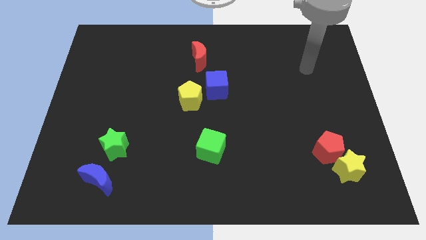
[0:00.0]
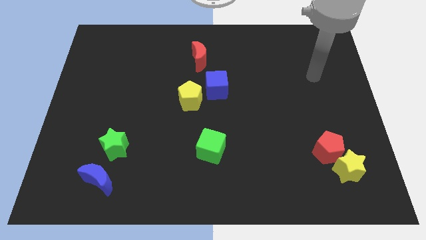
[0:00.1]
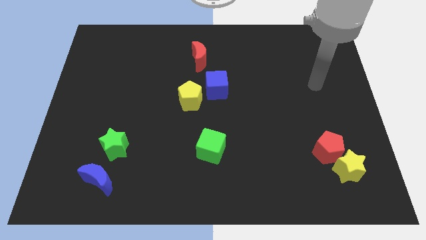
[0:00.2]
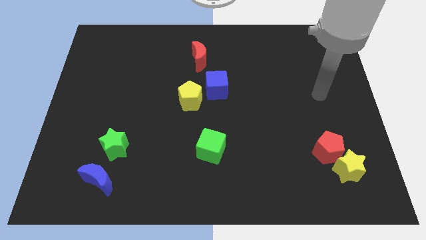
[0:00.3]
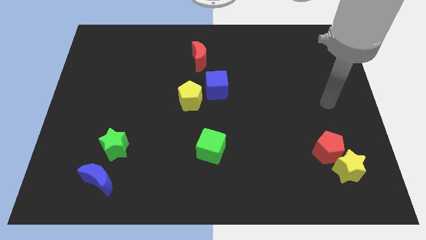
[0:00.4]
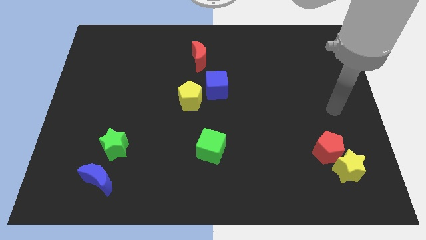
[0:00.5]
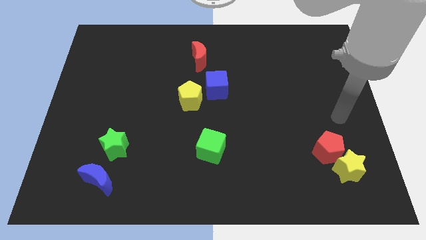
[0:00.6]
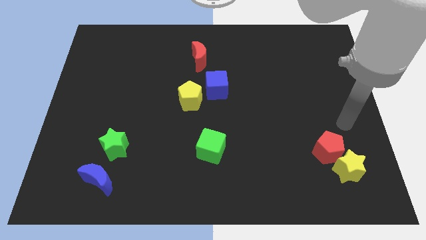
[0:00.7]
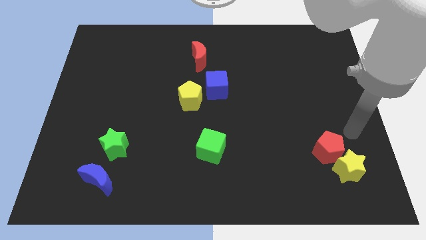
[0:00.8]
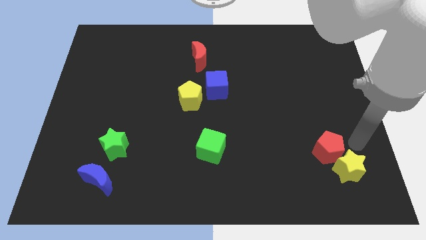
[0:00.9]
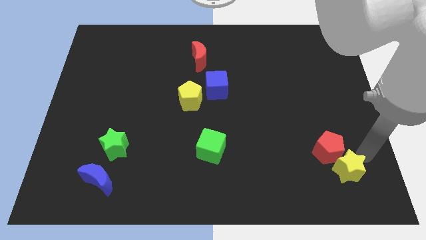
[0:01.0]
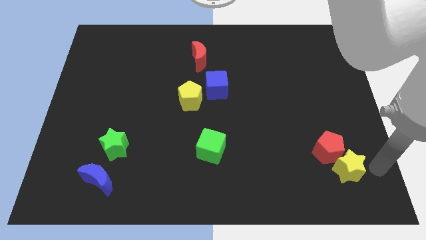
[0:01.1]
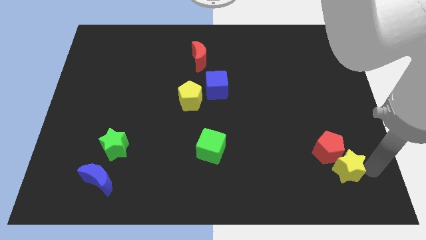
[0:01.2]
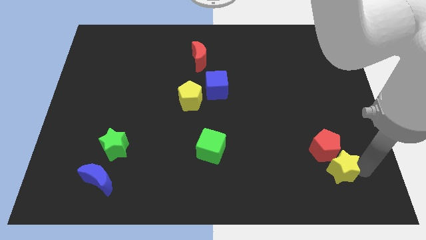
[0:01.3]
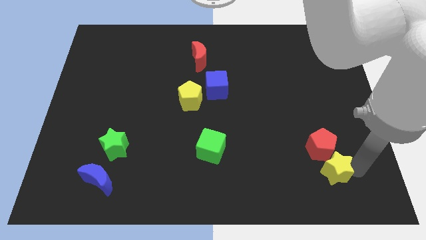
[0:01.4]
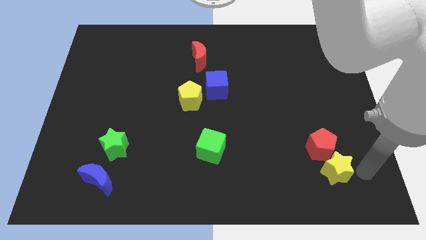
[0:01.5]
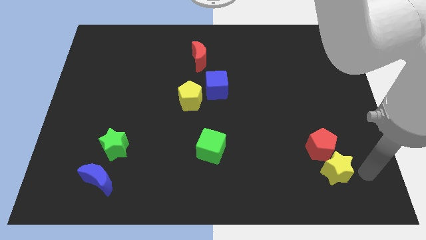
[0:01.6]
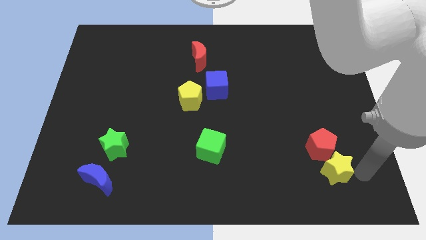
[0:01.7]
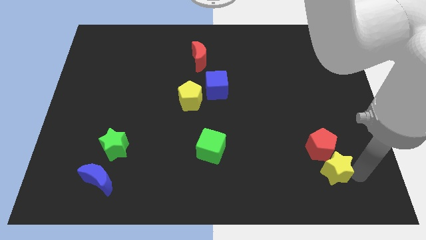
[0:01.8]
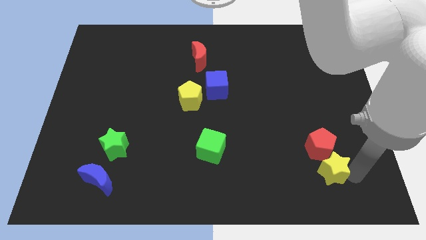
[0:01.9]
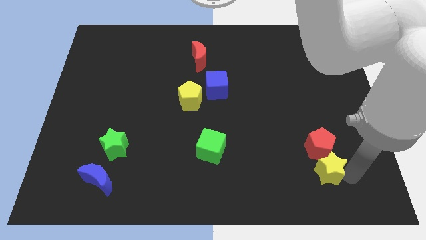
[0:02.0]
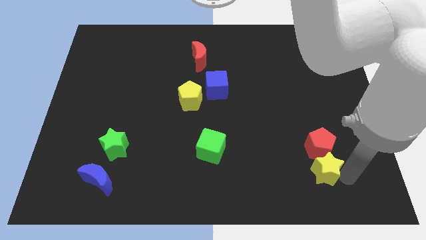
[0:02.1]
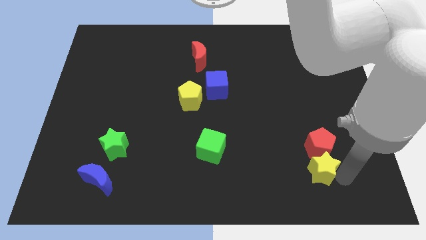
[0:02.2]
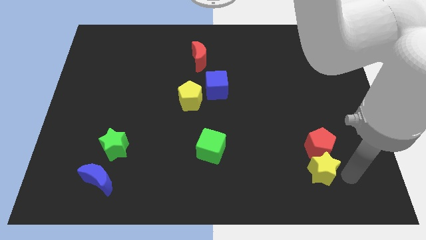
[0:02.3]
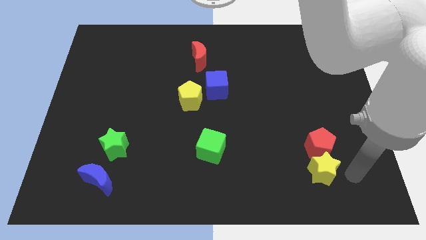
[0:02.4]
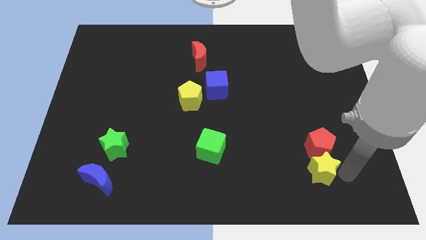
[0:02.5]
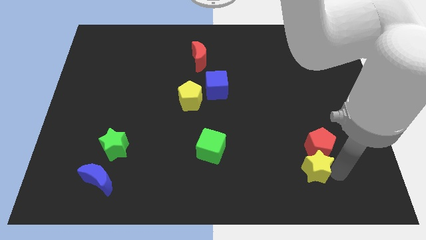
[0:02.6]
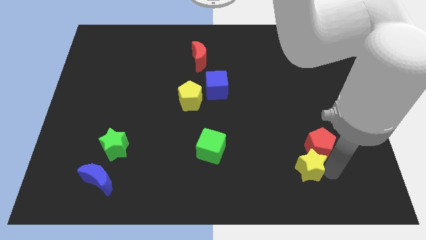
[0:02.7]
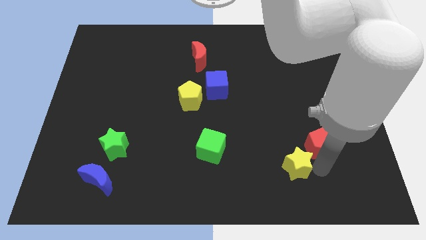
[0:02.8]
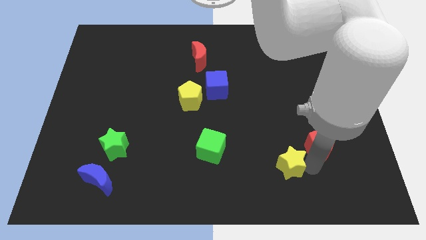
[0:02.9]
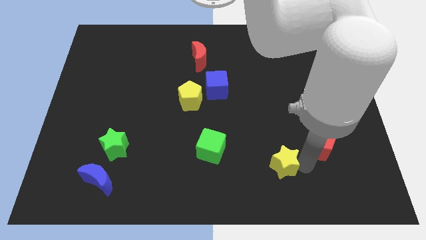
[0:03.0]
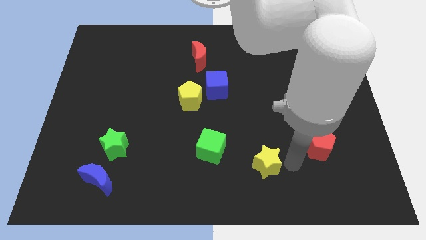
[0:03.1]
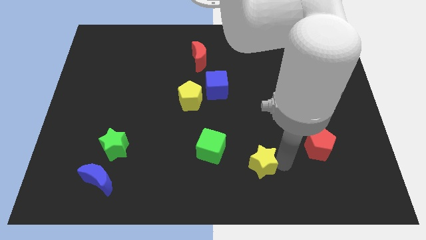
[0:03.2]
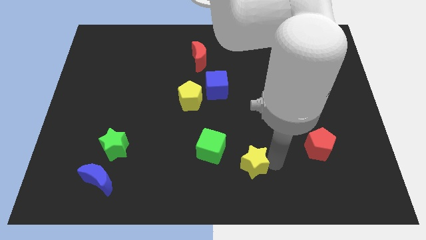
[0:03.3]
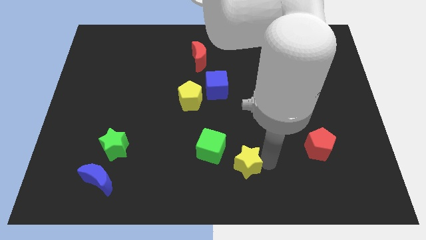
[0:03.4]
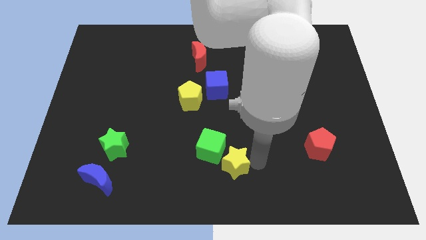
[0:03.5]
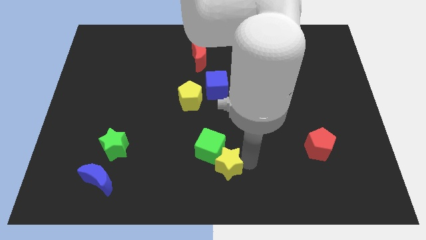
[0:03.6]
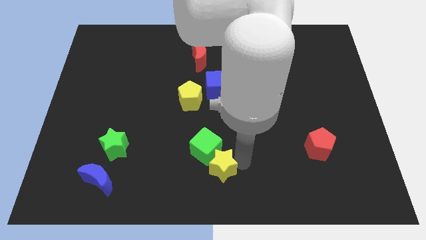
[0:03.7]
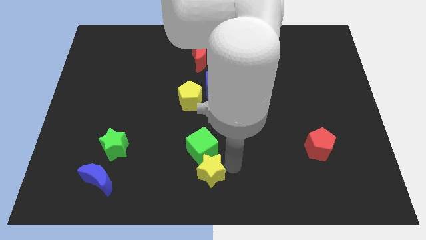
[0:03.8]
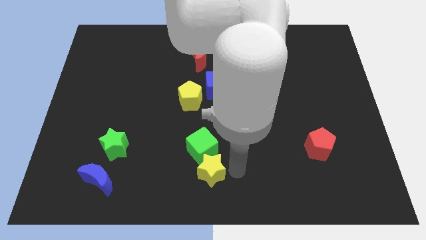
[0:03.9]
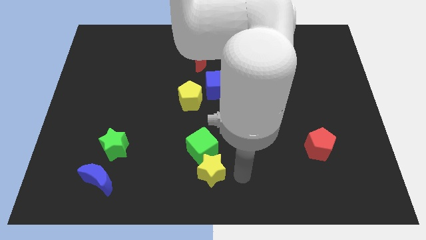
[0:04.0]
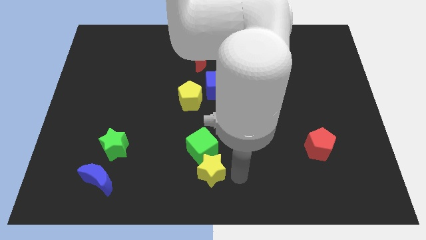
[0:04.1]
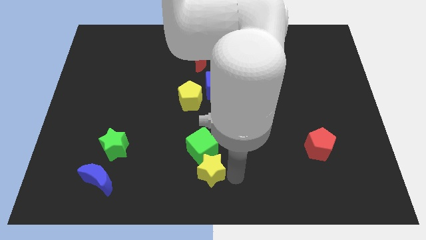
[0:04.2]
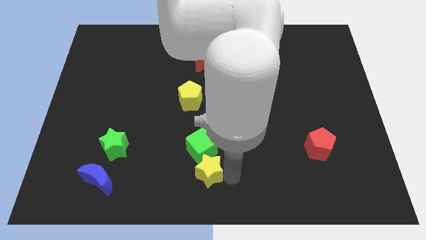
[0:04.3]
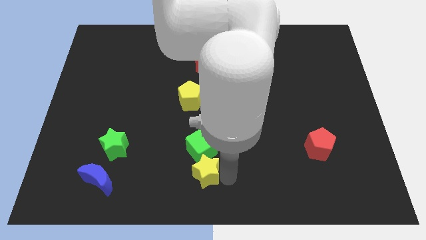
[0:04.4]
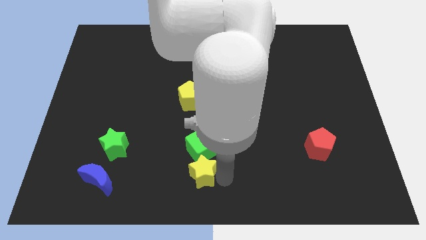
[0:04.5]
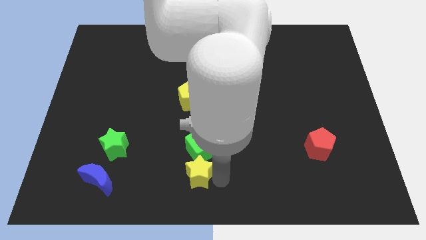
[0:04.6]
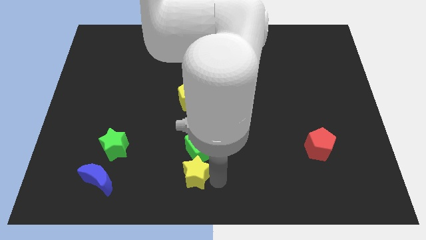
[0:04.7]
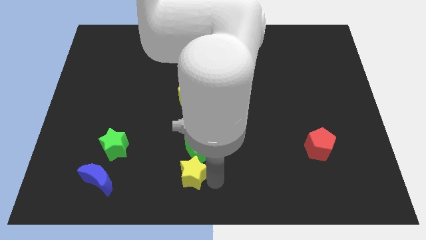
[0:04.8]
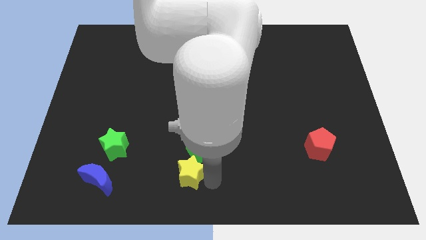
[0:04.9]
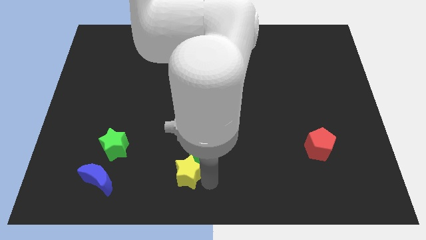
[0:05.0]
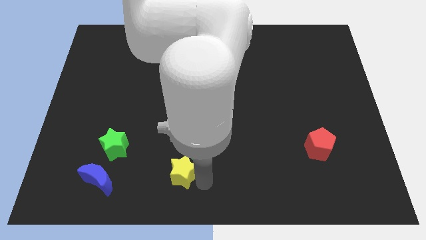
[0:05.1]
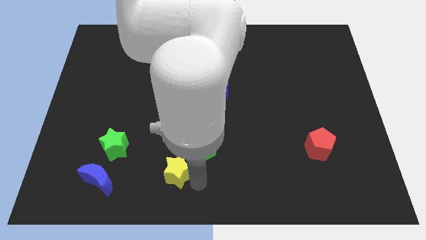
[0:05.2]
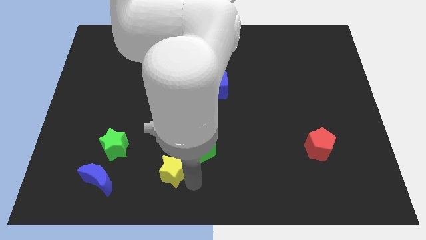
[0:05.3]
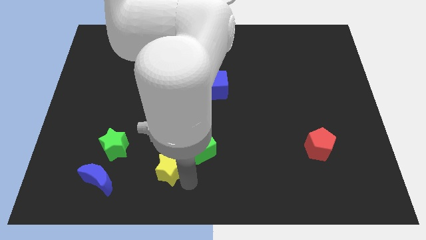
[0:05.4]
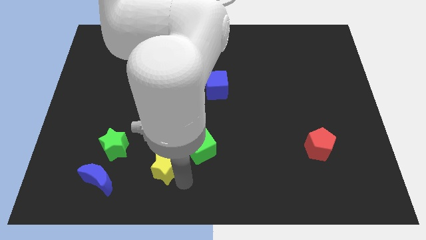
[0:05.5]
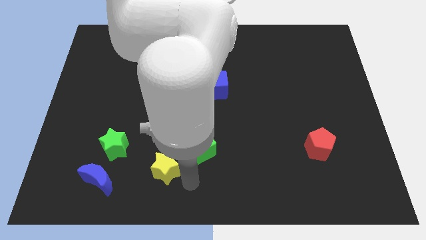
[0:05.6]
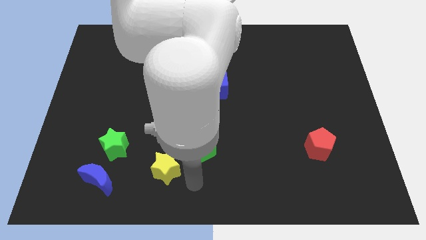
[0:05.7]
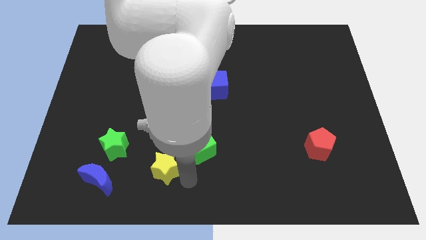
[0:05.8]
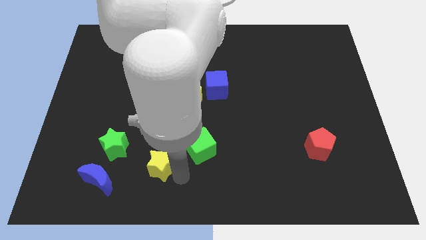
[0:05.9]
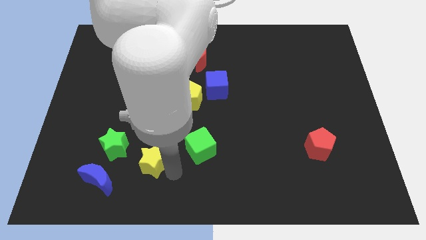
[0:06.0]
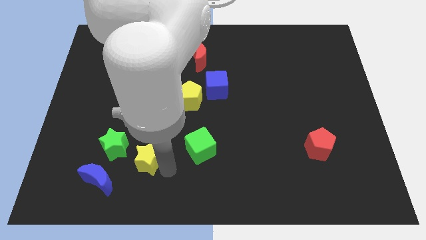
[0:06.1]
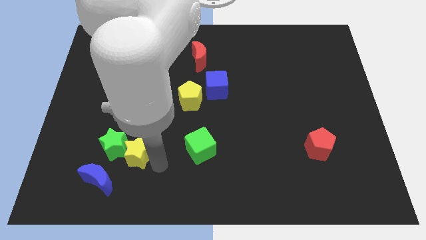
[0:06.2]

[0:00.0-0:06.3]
slide the yellow star towards the green star

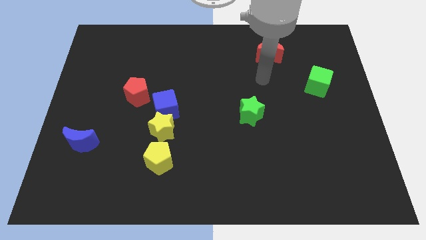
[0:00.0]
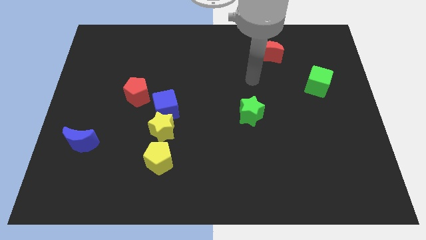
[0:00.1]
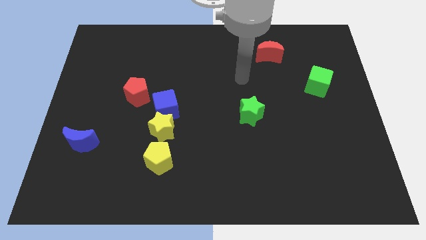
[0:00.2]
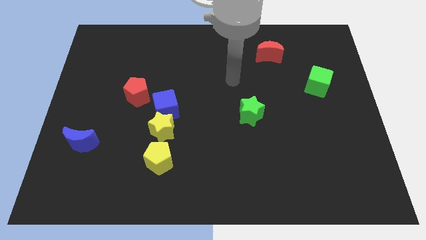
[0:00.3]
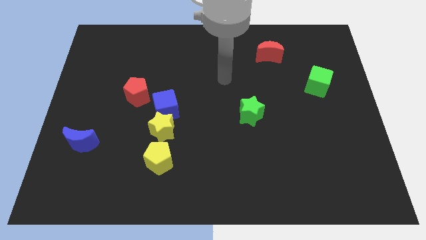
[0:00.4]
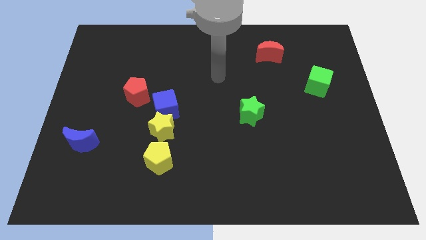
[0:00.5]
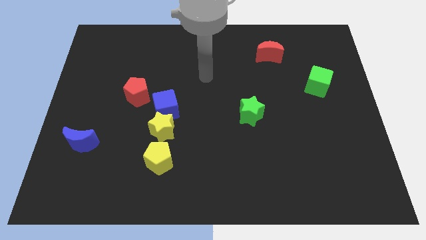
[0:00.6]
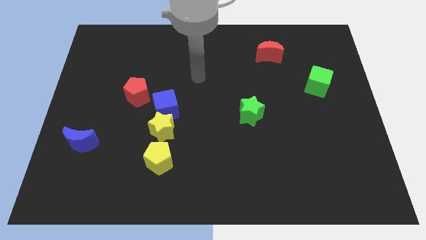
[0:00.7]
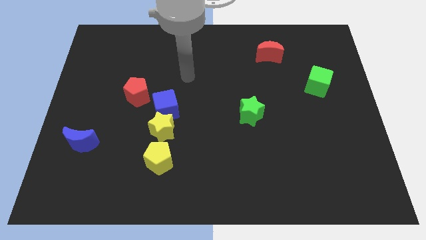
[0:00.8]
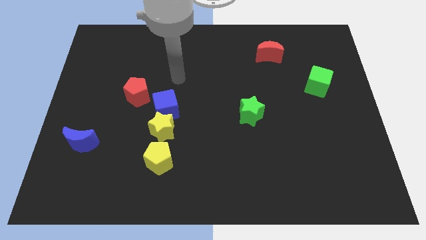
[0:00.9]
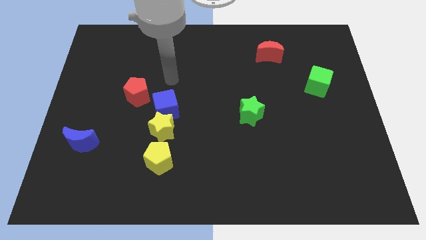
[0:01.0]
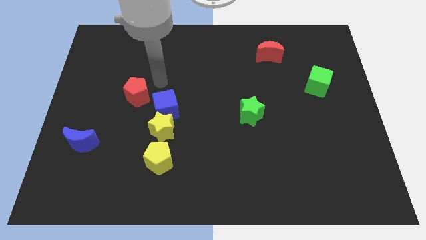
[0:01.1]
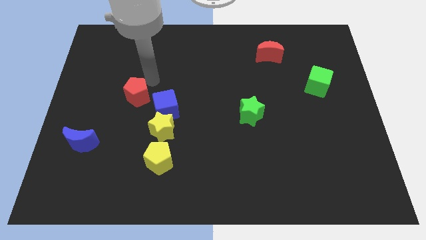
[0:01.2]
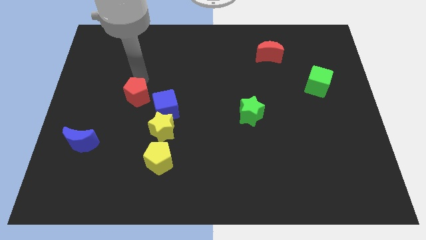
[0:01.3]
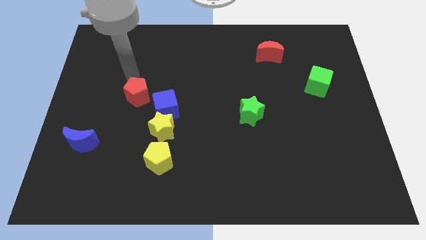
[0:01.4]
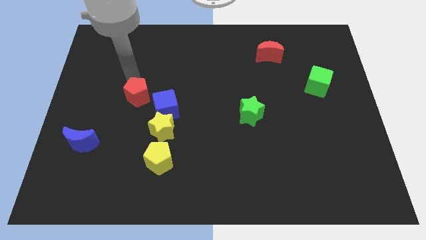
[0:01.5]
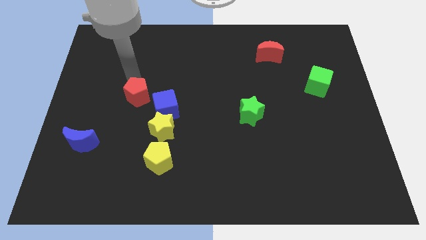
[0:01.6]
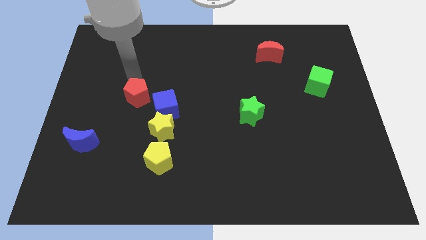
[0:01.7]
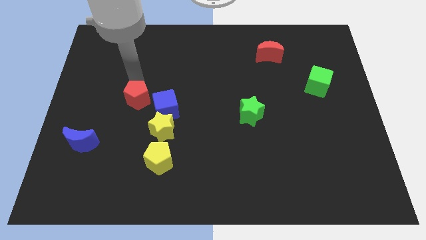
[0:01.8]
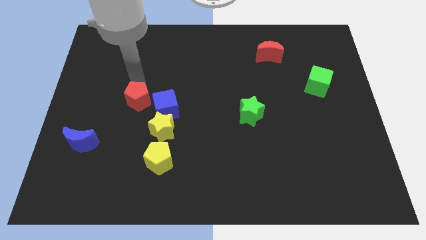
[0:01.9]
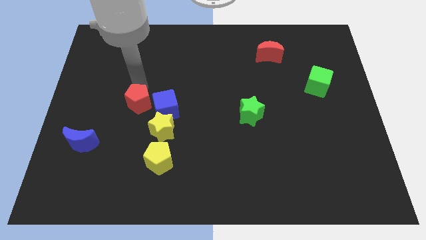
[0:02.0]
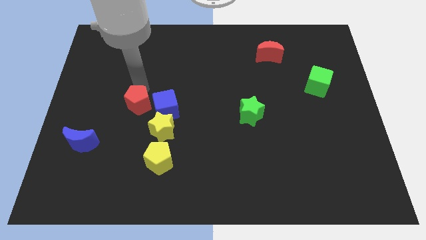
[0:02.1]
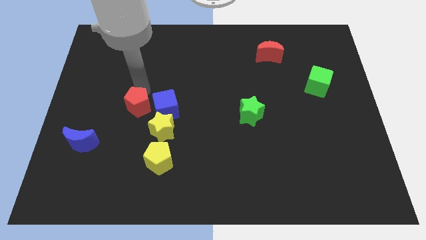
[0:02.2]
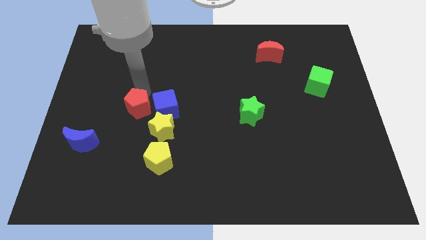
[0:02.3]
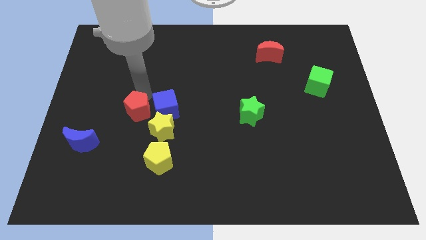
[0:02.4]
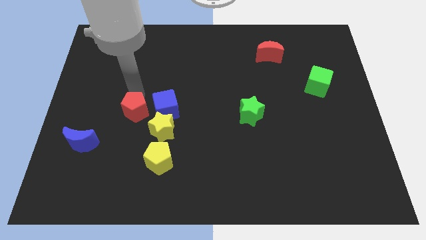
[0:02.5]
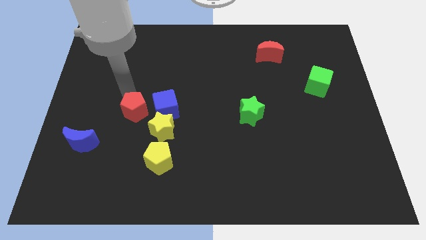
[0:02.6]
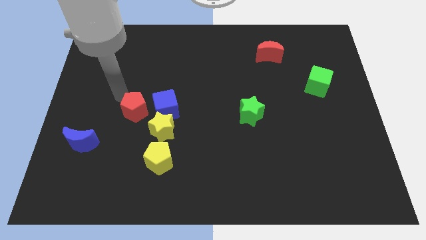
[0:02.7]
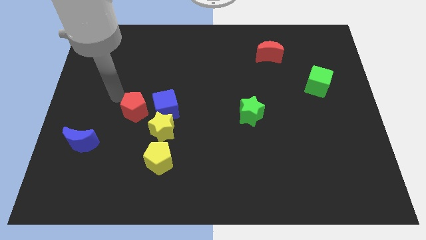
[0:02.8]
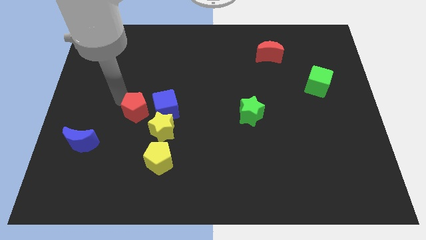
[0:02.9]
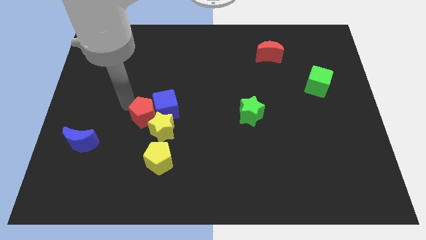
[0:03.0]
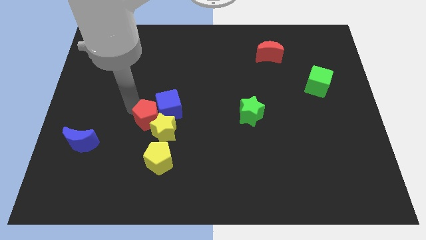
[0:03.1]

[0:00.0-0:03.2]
put the red pentagon next to the yellow star
